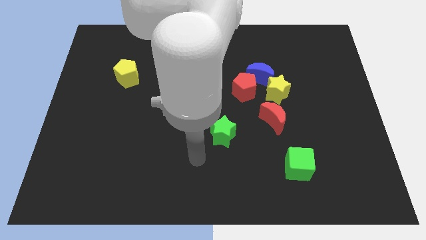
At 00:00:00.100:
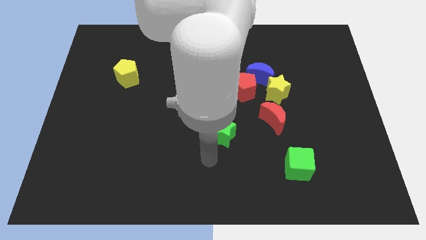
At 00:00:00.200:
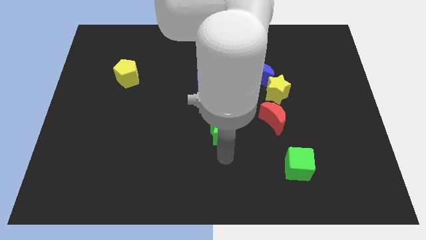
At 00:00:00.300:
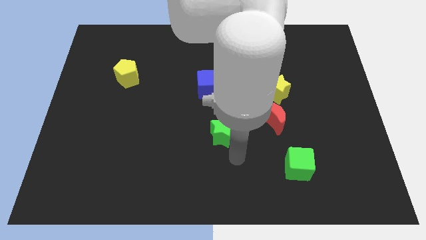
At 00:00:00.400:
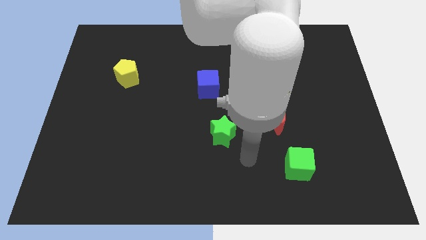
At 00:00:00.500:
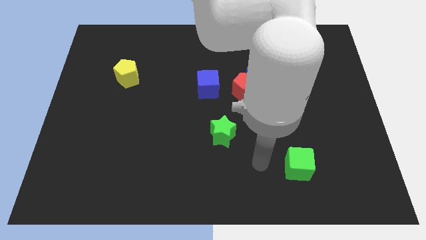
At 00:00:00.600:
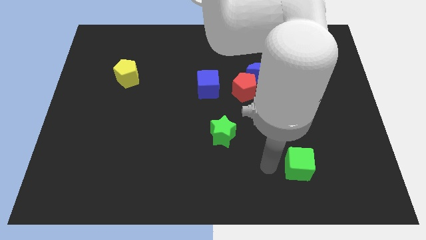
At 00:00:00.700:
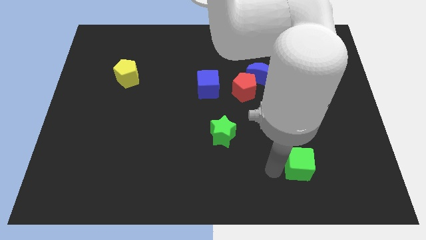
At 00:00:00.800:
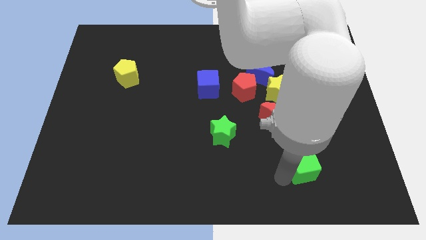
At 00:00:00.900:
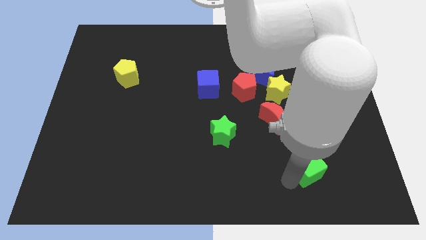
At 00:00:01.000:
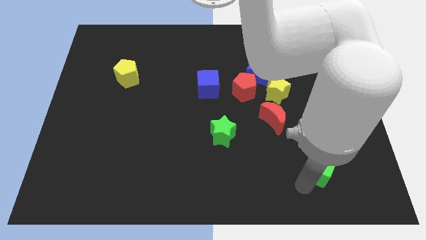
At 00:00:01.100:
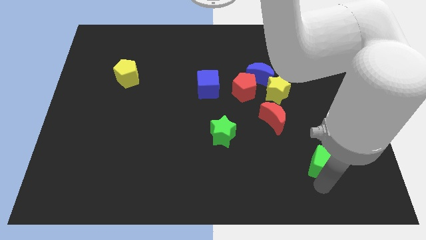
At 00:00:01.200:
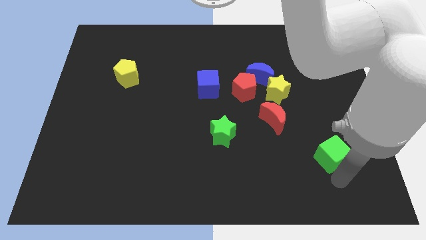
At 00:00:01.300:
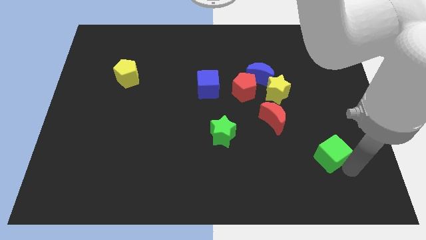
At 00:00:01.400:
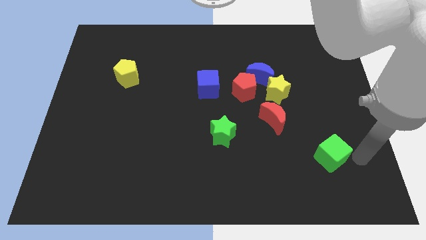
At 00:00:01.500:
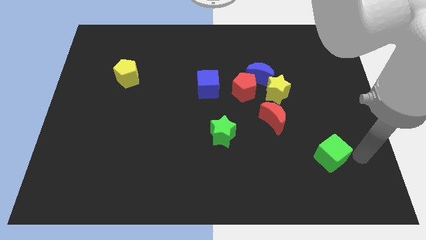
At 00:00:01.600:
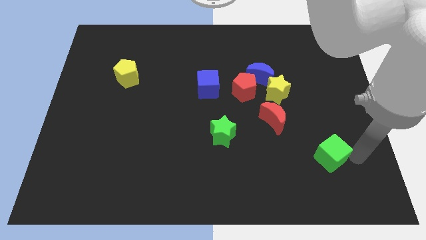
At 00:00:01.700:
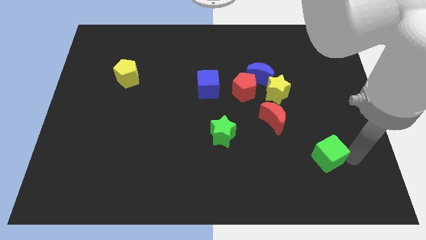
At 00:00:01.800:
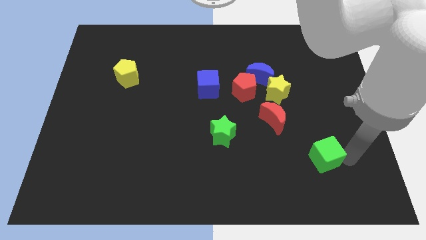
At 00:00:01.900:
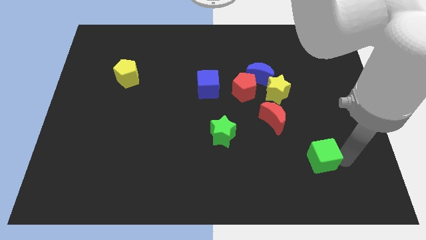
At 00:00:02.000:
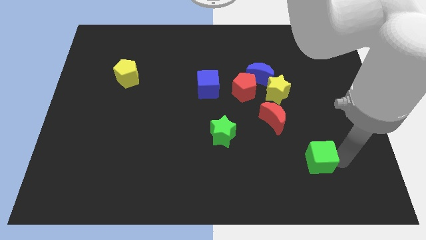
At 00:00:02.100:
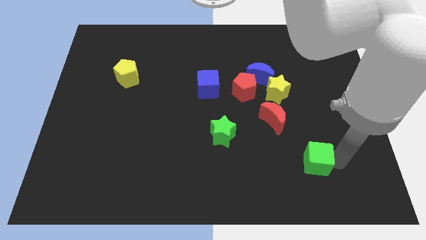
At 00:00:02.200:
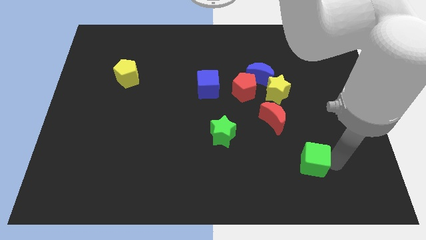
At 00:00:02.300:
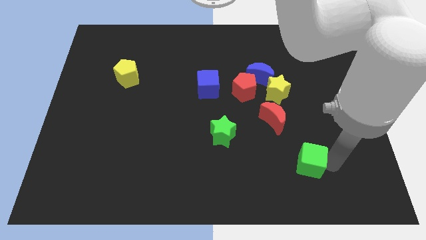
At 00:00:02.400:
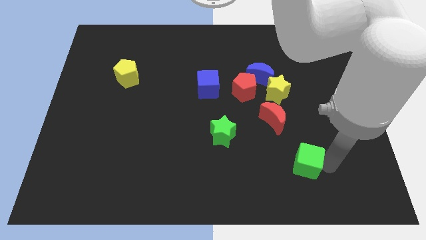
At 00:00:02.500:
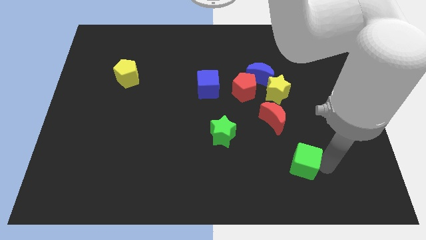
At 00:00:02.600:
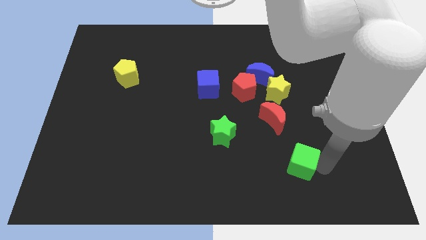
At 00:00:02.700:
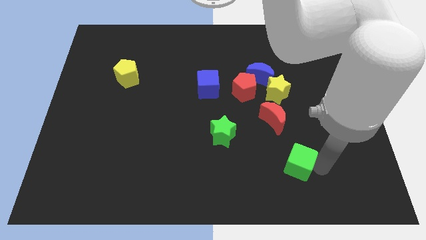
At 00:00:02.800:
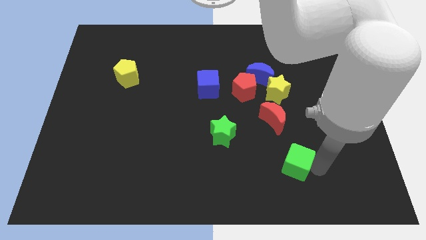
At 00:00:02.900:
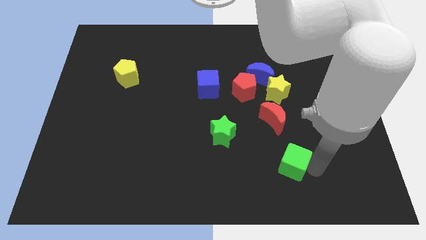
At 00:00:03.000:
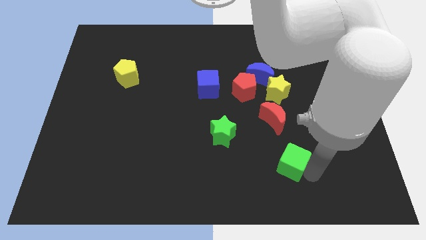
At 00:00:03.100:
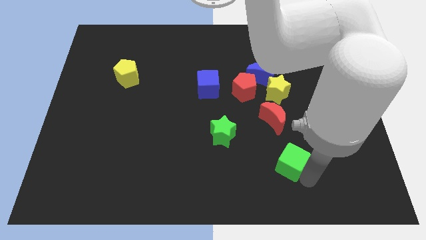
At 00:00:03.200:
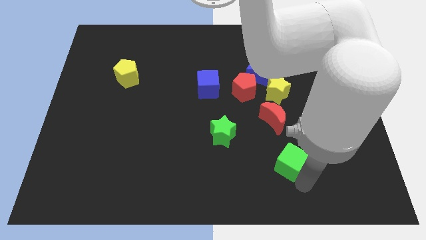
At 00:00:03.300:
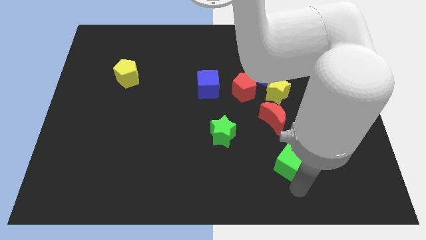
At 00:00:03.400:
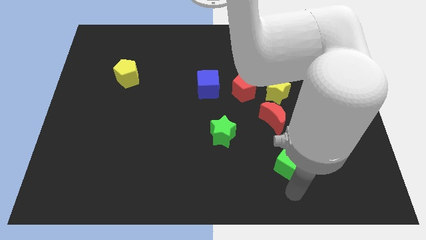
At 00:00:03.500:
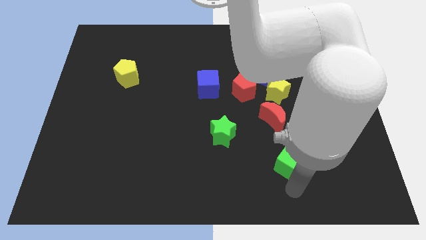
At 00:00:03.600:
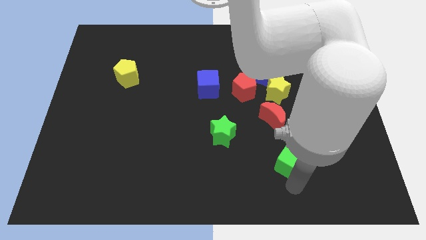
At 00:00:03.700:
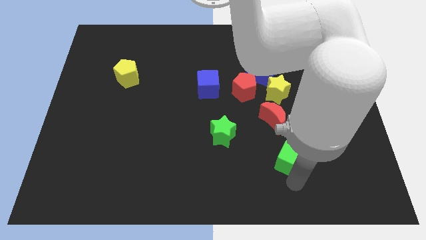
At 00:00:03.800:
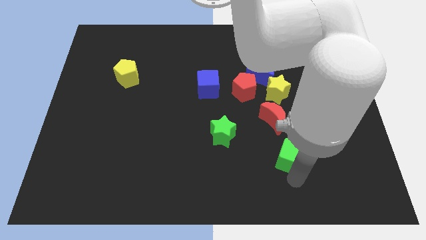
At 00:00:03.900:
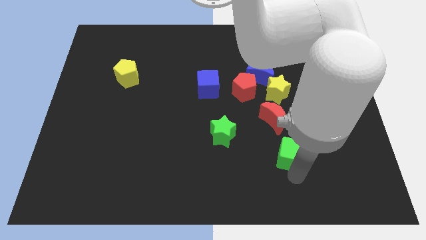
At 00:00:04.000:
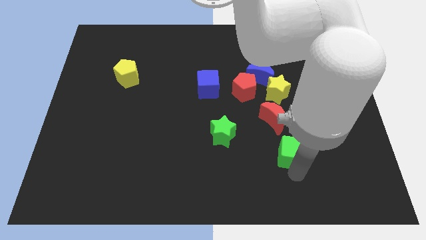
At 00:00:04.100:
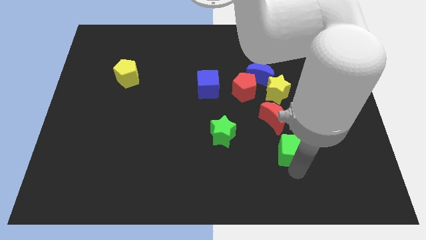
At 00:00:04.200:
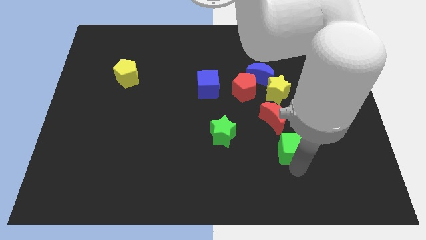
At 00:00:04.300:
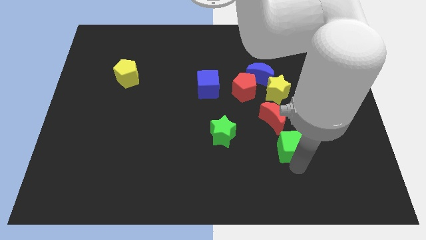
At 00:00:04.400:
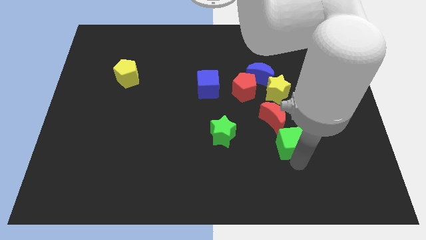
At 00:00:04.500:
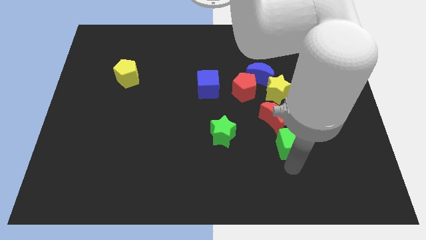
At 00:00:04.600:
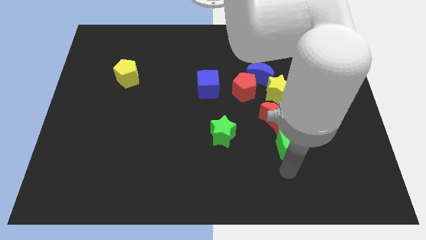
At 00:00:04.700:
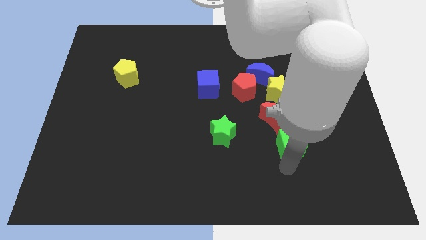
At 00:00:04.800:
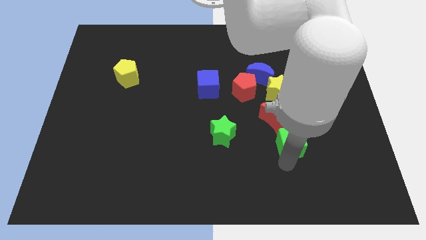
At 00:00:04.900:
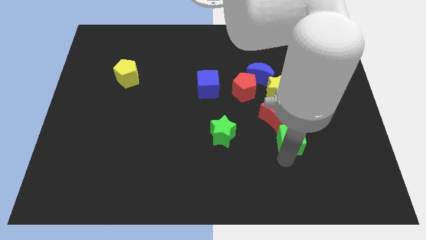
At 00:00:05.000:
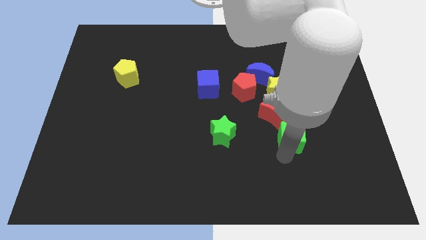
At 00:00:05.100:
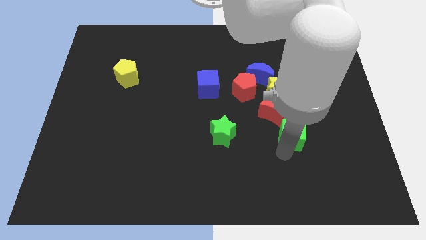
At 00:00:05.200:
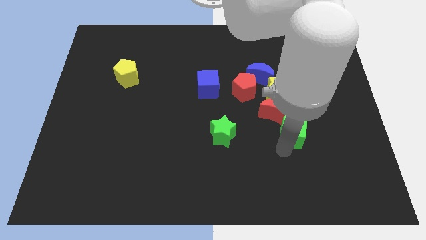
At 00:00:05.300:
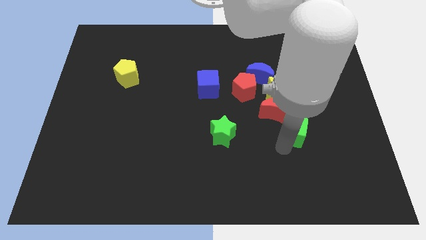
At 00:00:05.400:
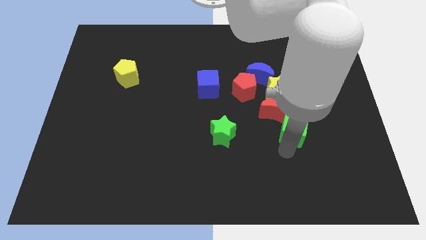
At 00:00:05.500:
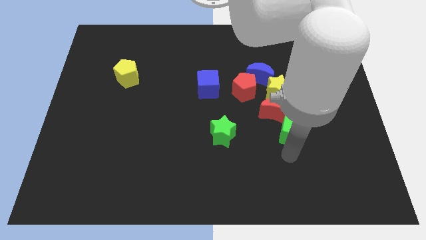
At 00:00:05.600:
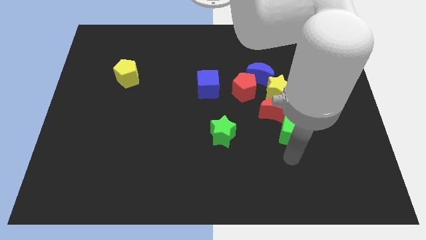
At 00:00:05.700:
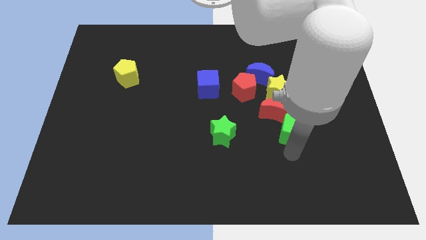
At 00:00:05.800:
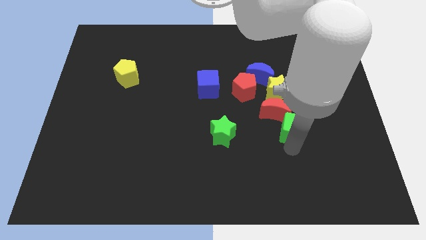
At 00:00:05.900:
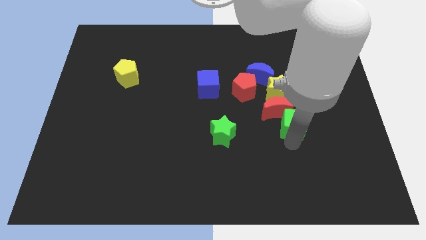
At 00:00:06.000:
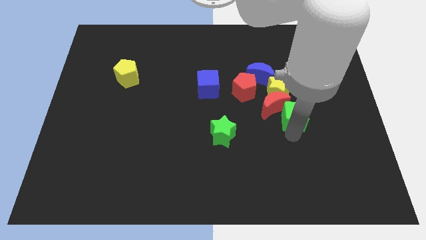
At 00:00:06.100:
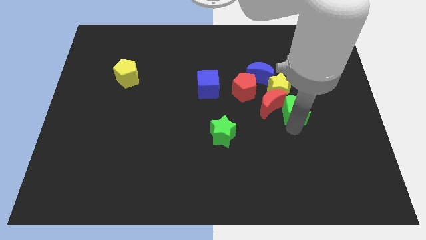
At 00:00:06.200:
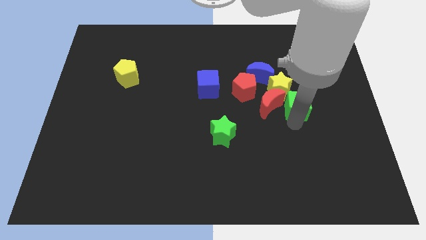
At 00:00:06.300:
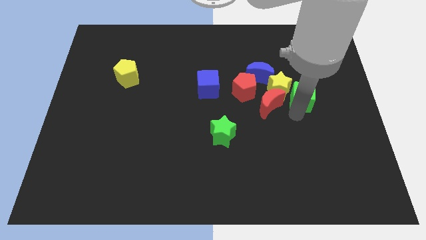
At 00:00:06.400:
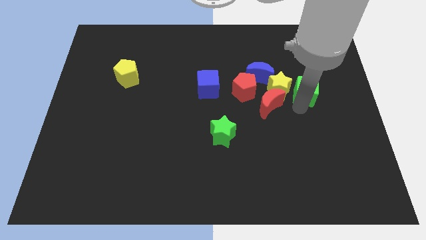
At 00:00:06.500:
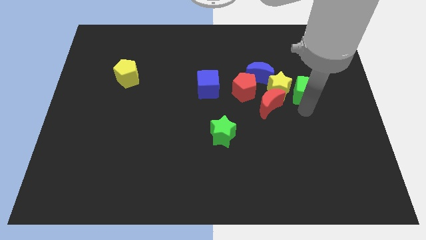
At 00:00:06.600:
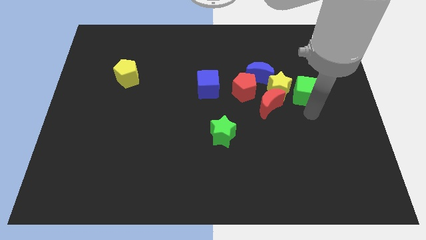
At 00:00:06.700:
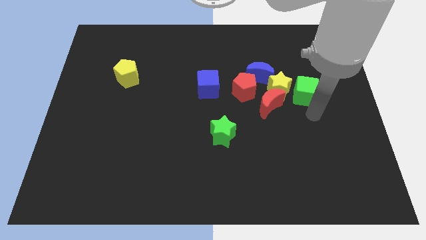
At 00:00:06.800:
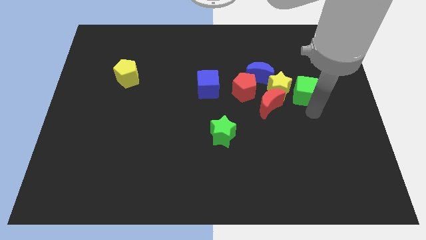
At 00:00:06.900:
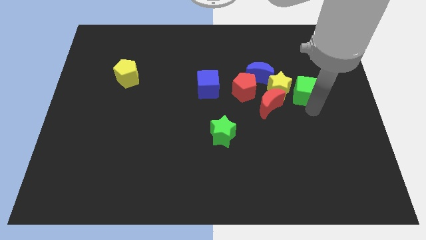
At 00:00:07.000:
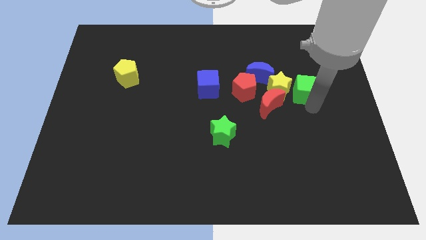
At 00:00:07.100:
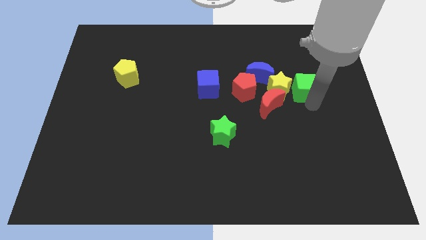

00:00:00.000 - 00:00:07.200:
push the green cube to the top right of the yellow star

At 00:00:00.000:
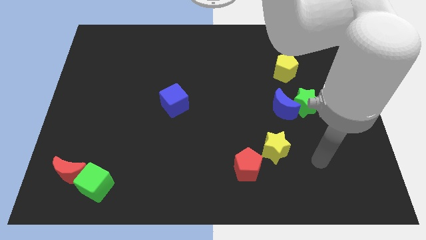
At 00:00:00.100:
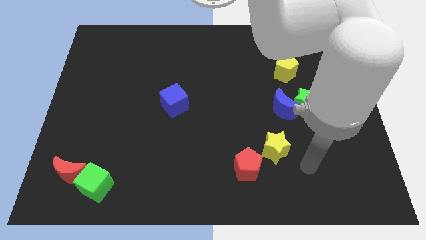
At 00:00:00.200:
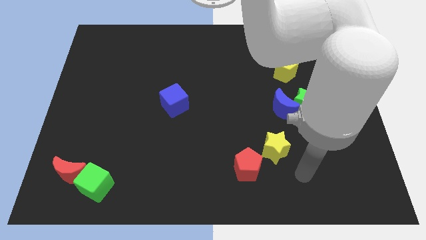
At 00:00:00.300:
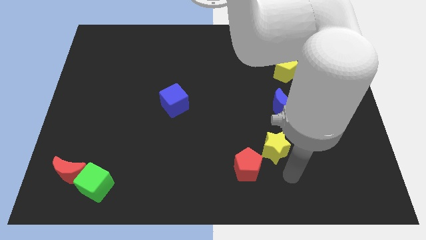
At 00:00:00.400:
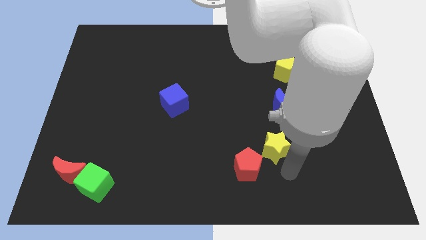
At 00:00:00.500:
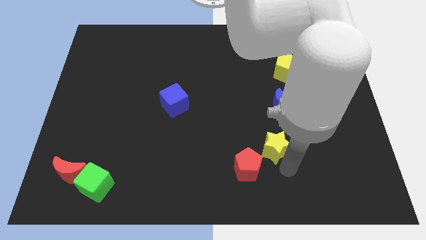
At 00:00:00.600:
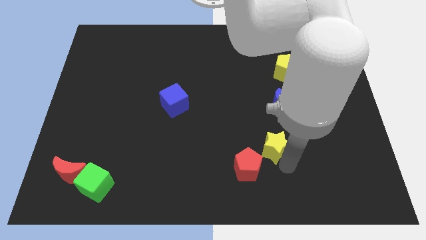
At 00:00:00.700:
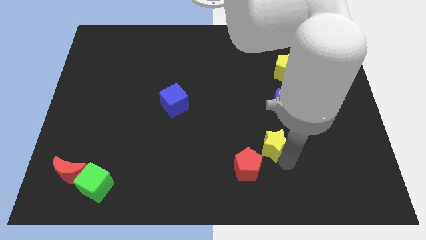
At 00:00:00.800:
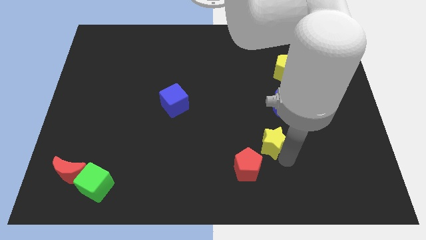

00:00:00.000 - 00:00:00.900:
put the yellow star diagonally down and to the left of the blue moon
